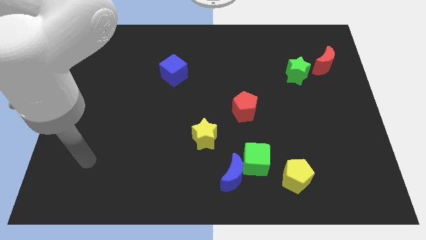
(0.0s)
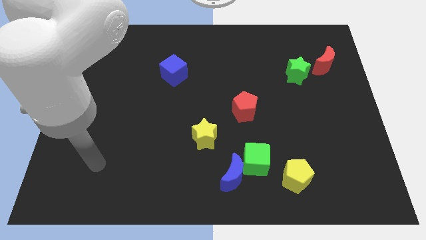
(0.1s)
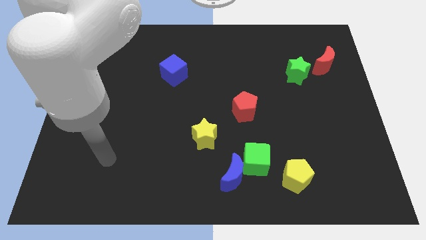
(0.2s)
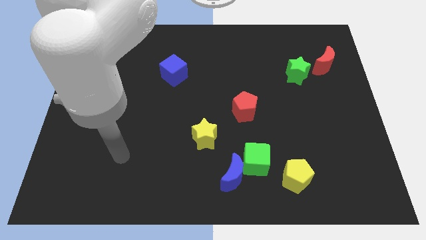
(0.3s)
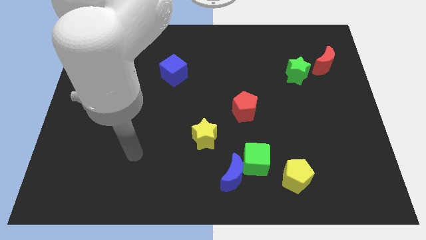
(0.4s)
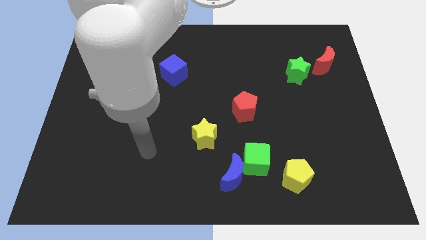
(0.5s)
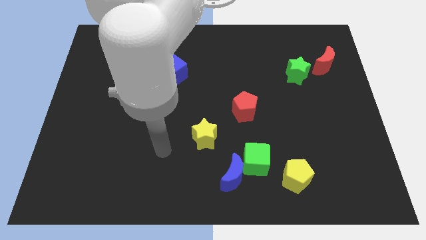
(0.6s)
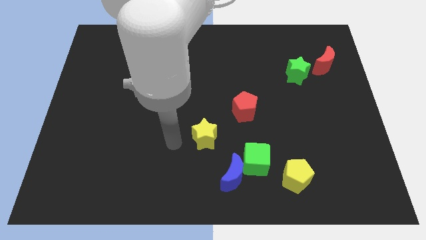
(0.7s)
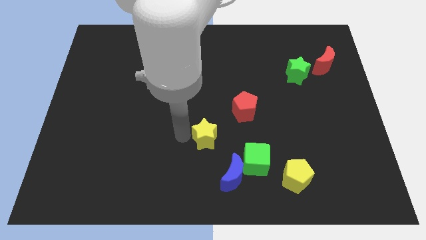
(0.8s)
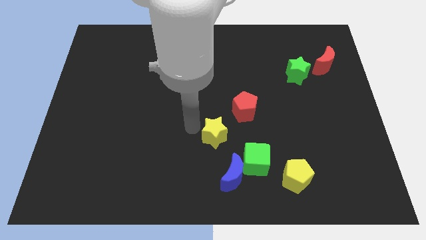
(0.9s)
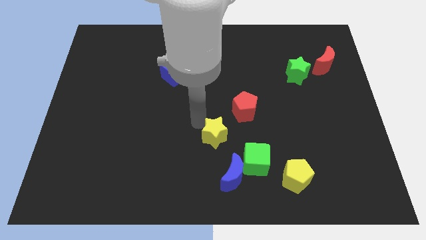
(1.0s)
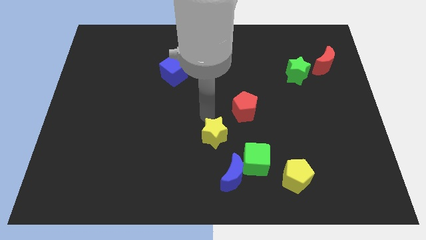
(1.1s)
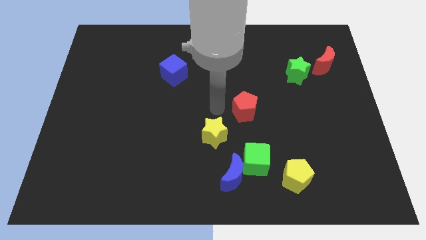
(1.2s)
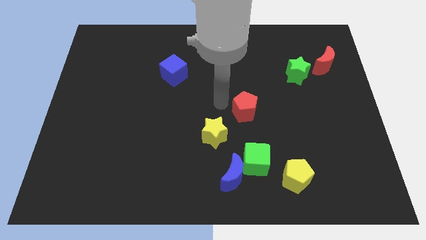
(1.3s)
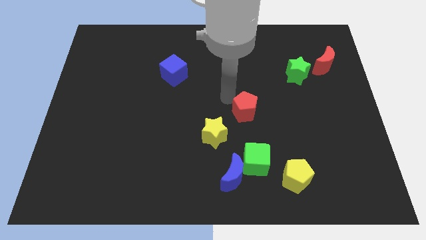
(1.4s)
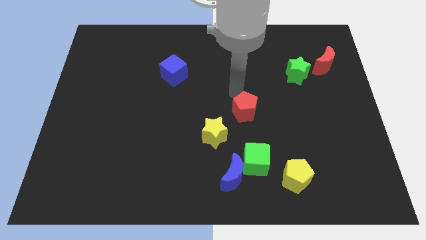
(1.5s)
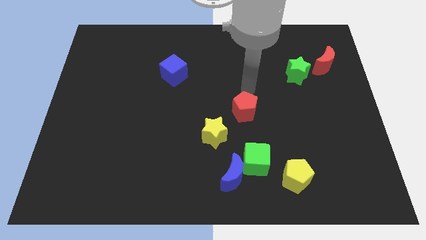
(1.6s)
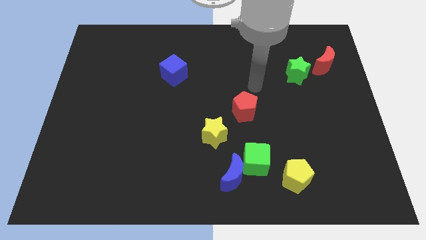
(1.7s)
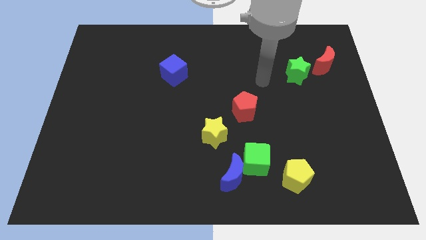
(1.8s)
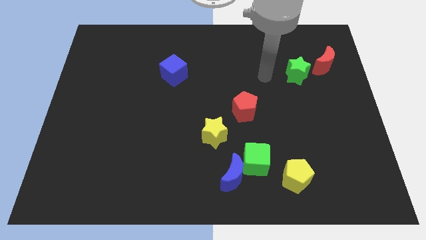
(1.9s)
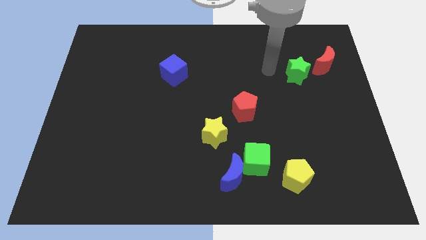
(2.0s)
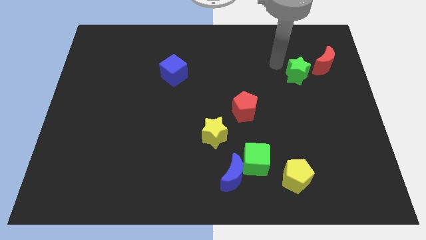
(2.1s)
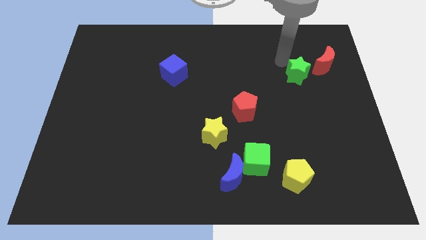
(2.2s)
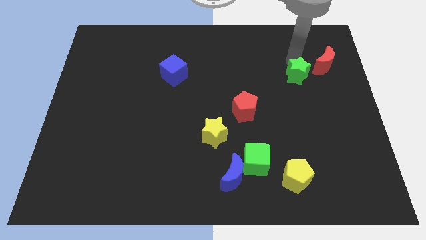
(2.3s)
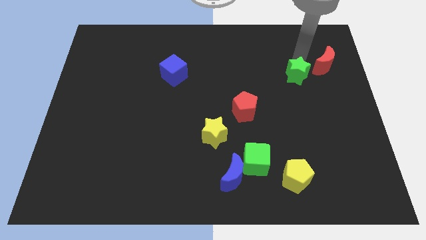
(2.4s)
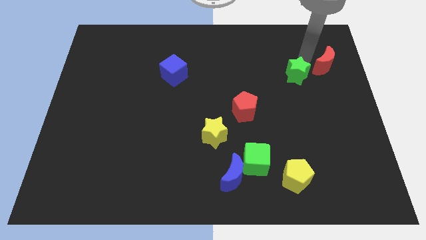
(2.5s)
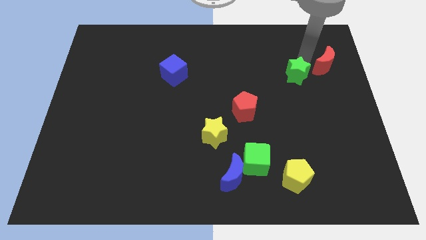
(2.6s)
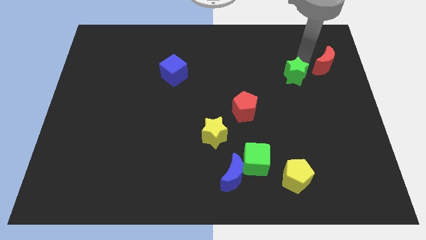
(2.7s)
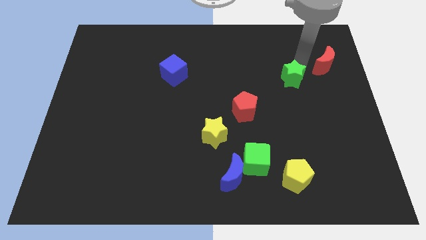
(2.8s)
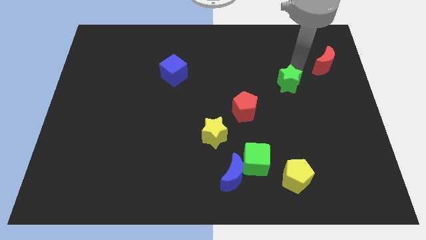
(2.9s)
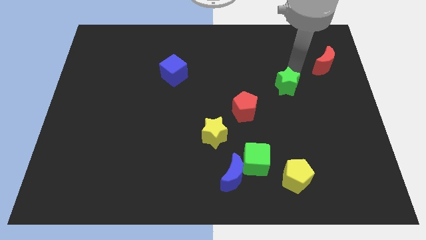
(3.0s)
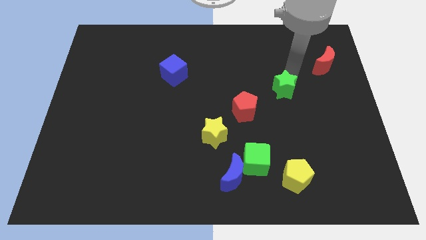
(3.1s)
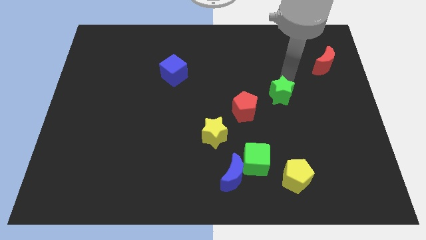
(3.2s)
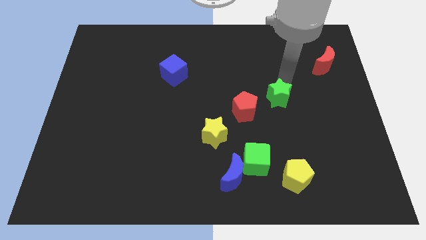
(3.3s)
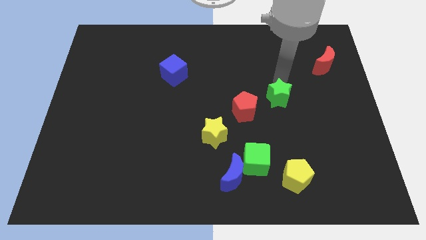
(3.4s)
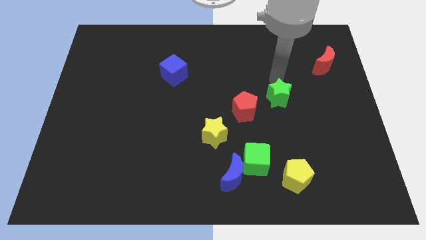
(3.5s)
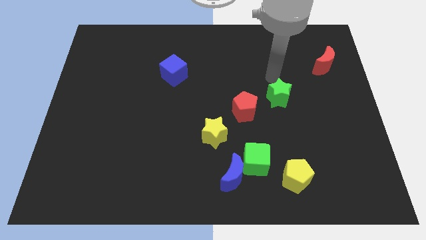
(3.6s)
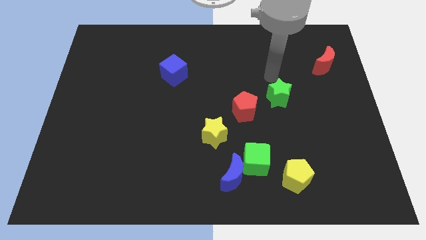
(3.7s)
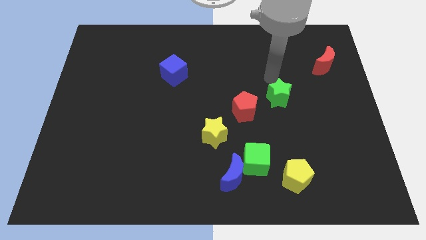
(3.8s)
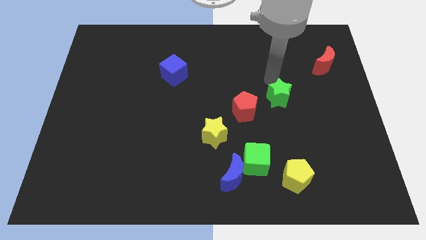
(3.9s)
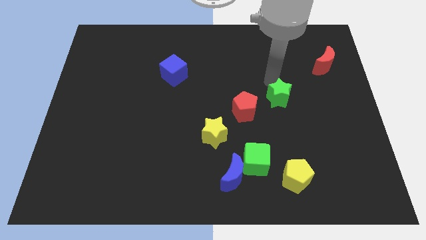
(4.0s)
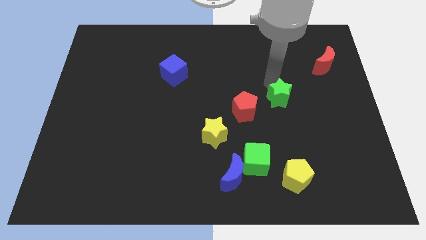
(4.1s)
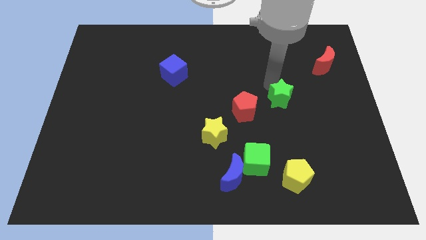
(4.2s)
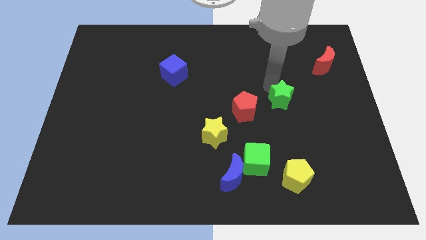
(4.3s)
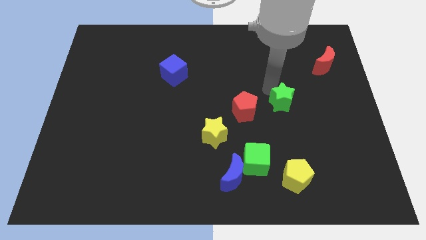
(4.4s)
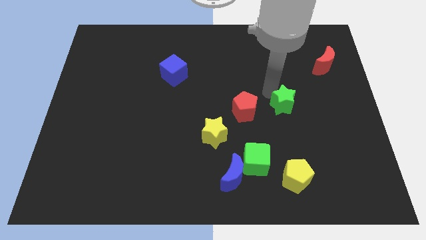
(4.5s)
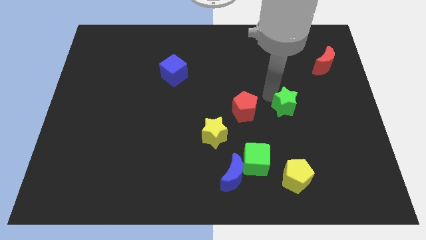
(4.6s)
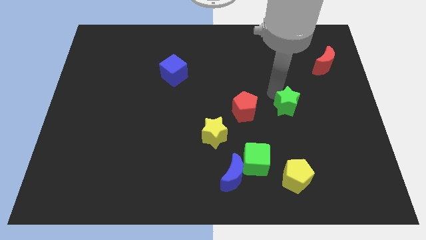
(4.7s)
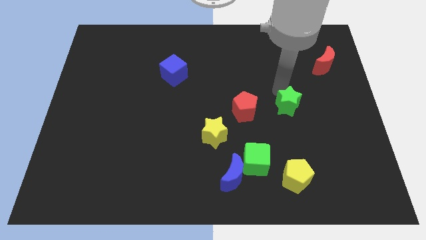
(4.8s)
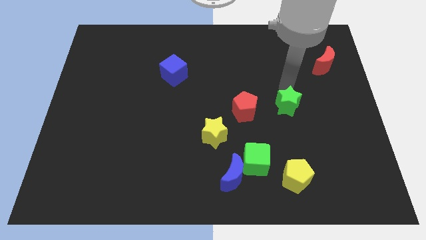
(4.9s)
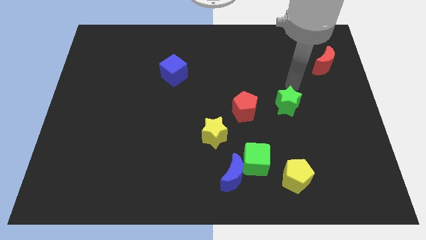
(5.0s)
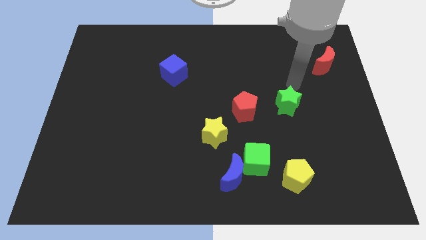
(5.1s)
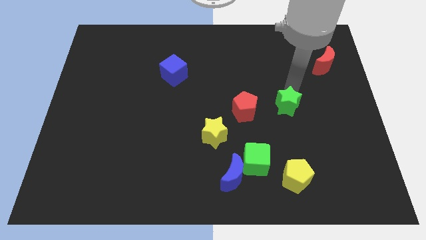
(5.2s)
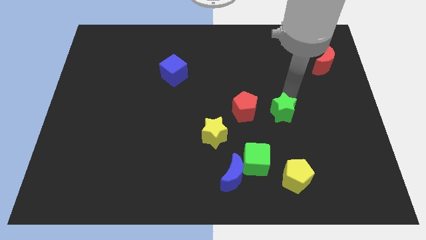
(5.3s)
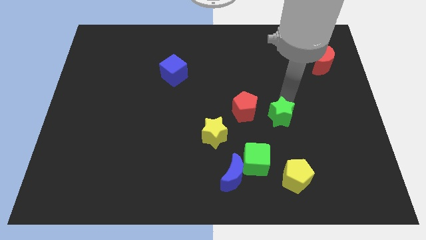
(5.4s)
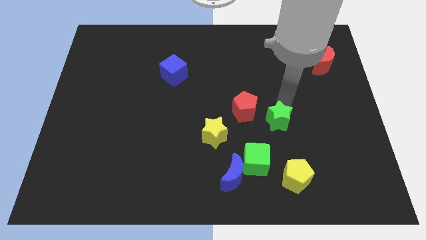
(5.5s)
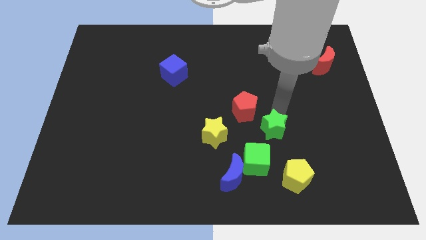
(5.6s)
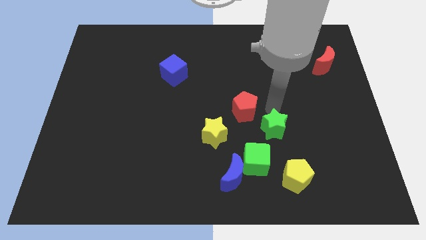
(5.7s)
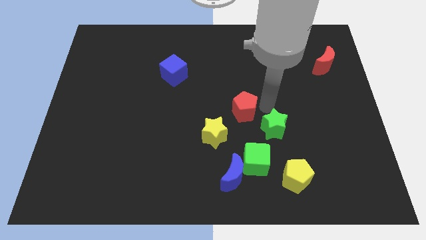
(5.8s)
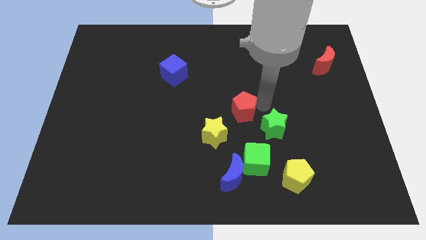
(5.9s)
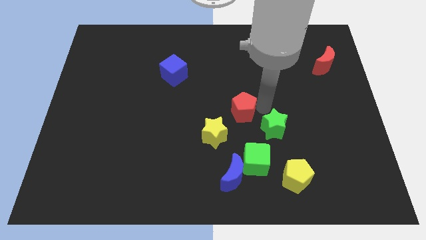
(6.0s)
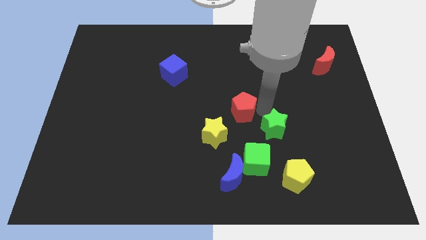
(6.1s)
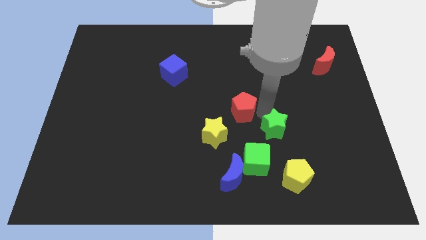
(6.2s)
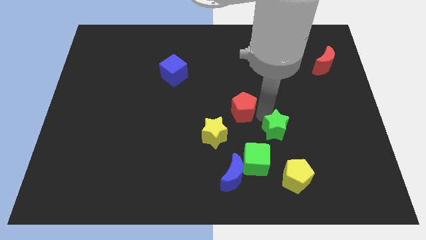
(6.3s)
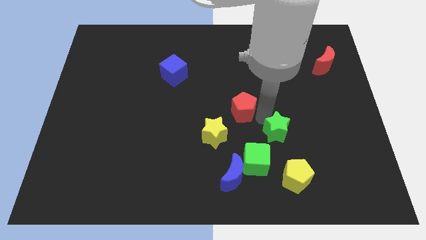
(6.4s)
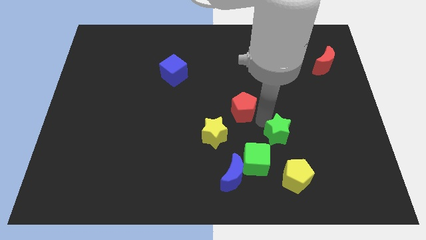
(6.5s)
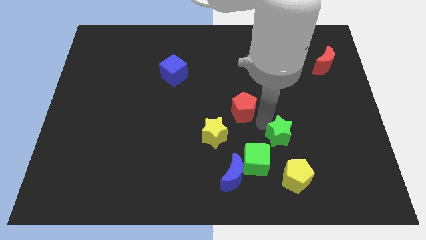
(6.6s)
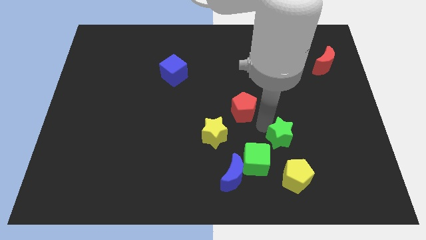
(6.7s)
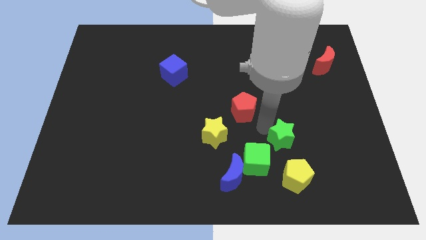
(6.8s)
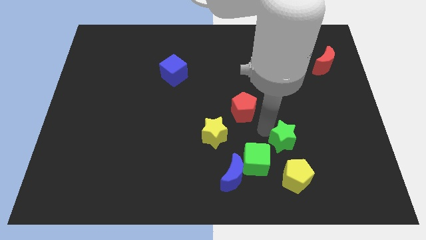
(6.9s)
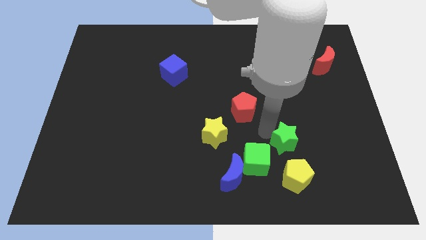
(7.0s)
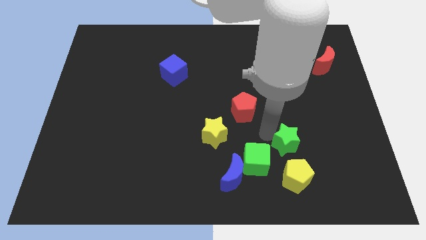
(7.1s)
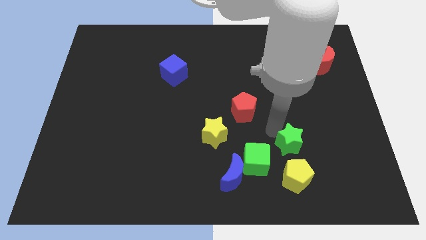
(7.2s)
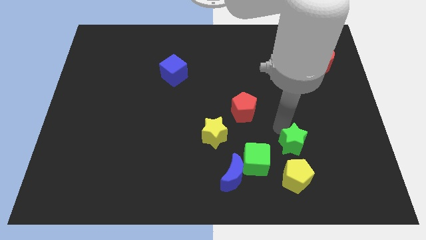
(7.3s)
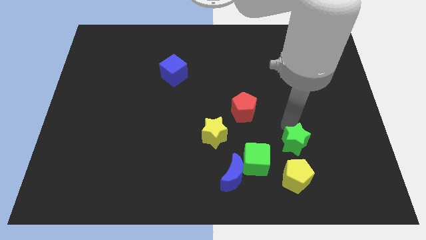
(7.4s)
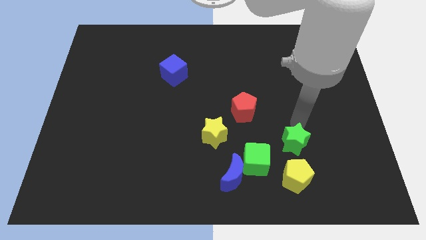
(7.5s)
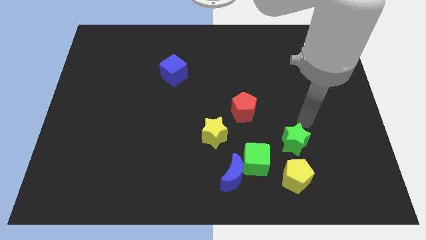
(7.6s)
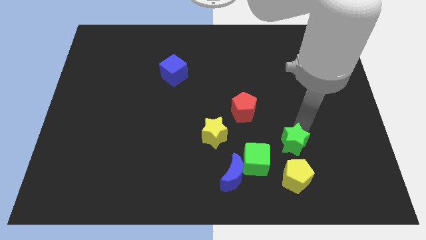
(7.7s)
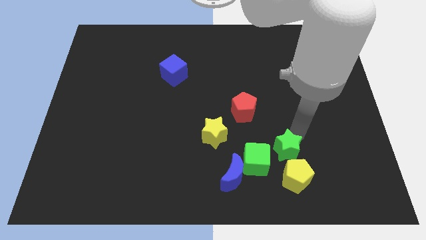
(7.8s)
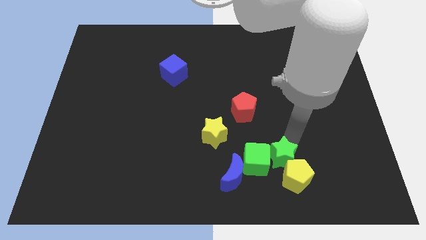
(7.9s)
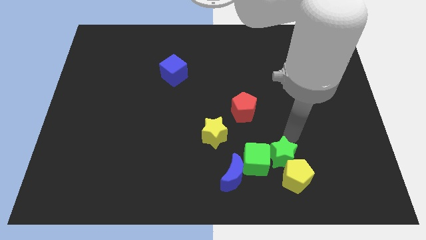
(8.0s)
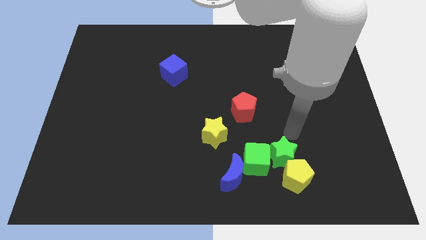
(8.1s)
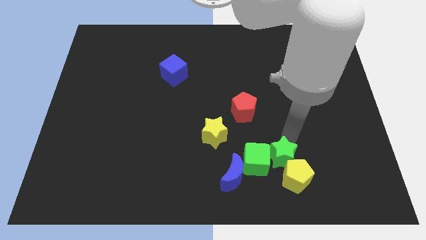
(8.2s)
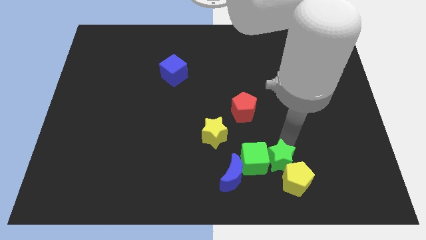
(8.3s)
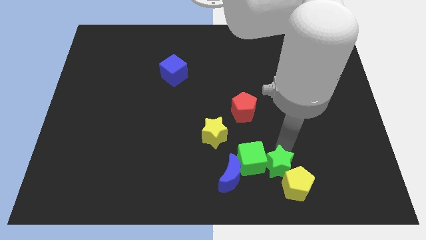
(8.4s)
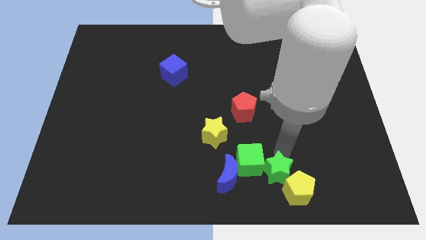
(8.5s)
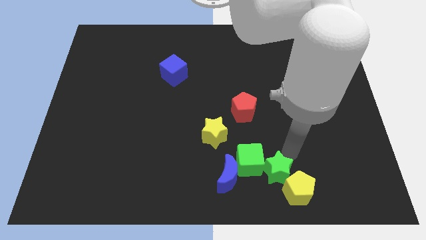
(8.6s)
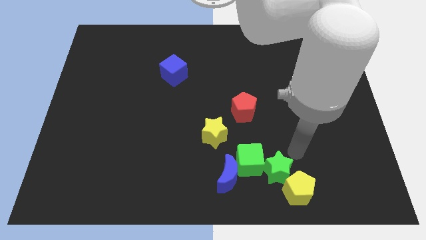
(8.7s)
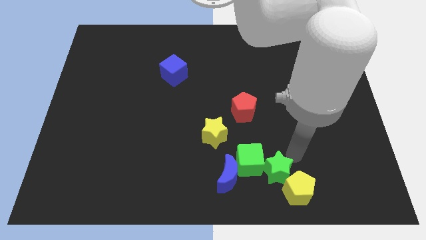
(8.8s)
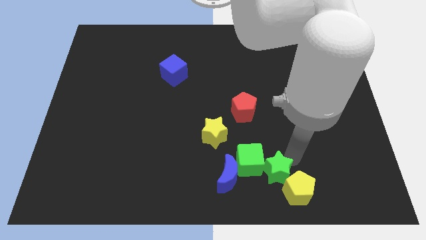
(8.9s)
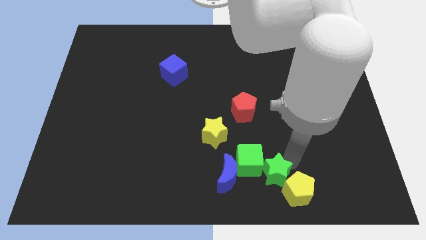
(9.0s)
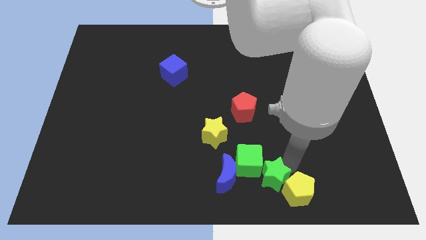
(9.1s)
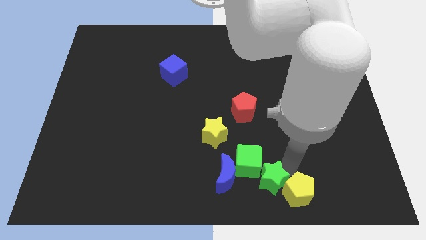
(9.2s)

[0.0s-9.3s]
put the green star to the bottom
